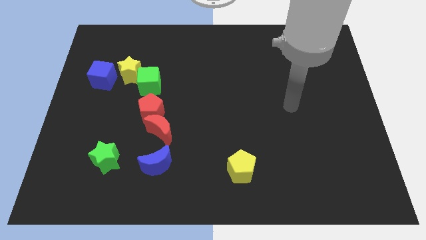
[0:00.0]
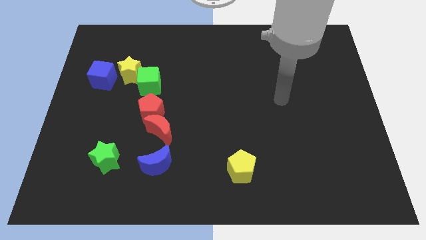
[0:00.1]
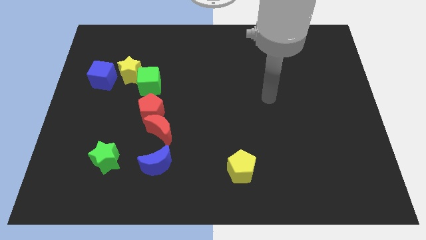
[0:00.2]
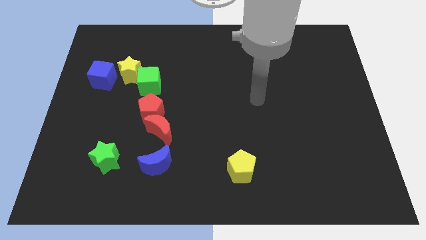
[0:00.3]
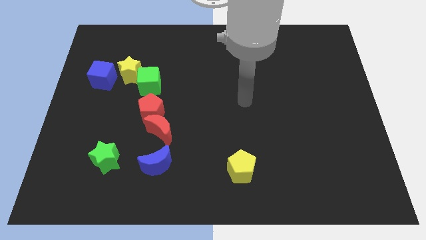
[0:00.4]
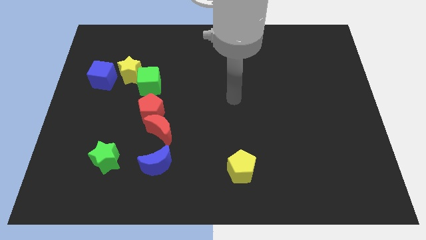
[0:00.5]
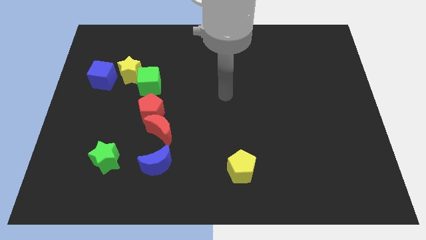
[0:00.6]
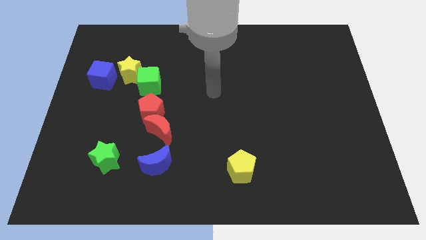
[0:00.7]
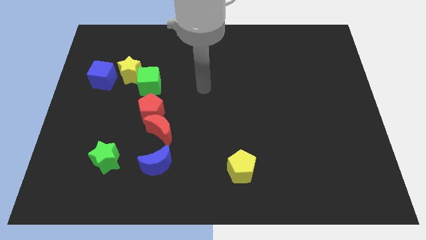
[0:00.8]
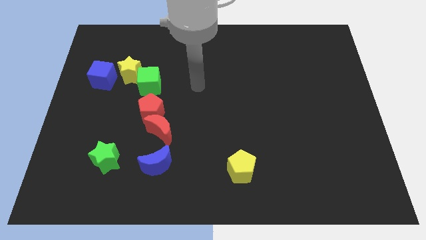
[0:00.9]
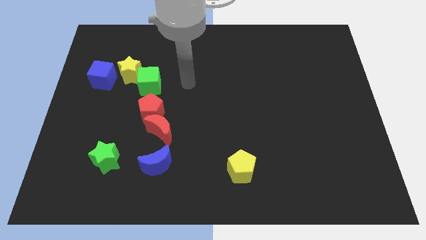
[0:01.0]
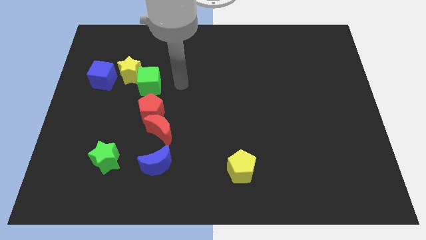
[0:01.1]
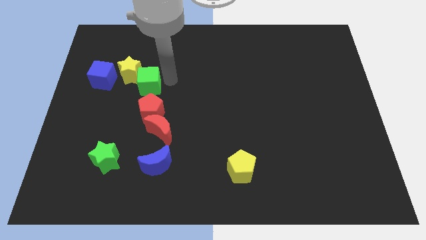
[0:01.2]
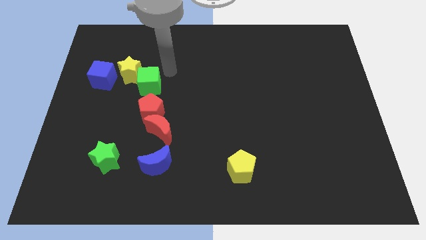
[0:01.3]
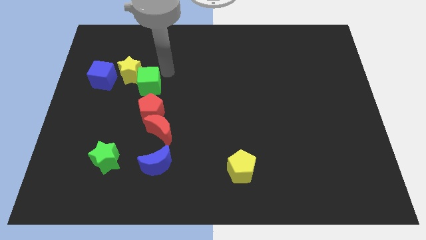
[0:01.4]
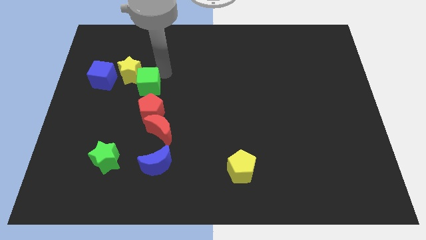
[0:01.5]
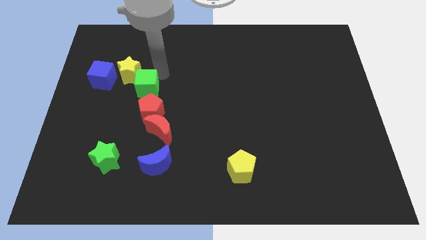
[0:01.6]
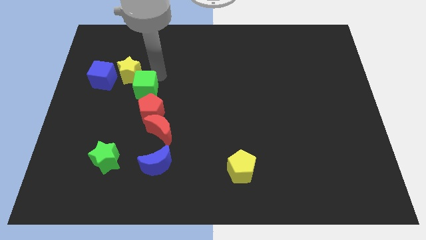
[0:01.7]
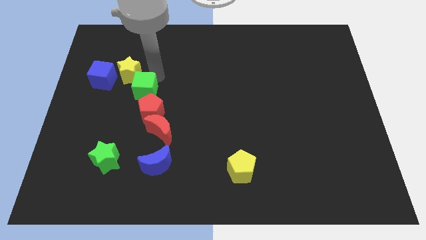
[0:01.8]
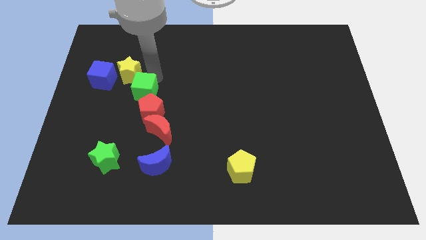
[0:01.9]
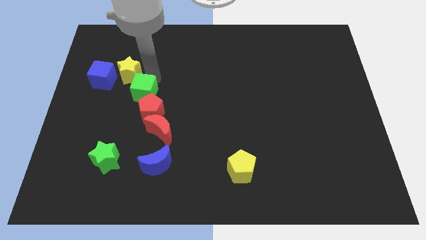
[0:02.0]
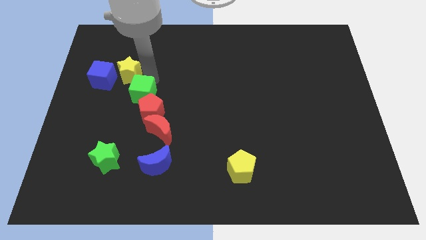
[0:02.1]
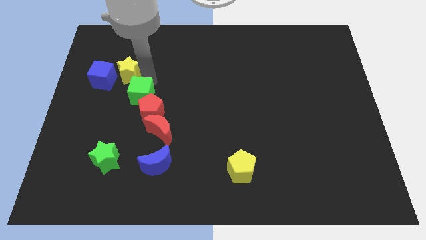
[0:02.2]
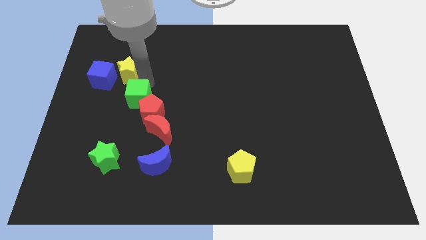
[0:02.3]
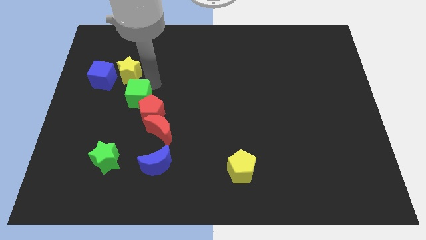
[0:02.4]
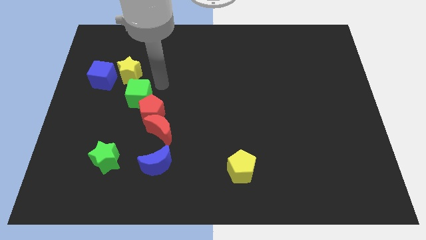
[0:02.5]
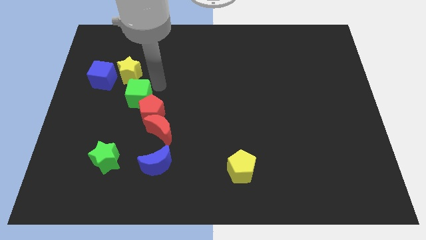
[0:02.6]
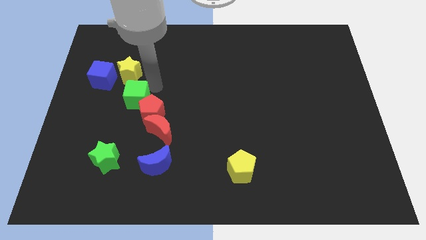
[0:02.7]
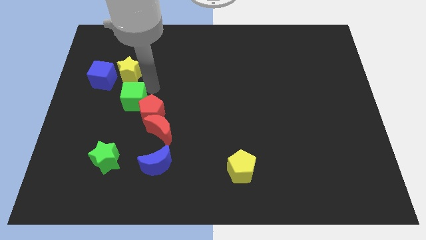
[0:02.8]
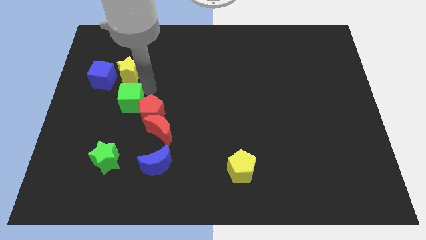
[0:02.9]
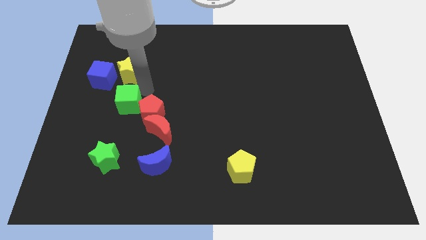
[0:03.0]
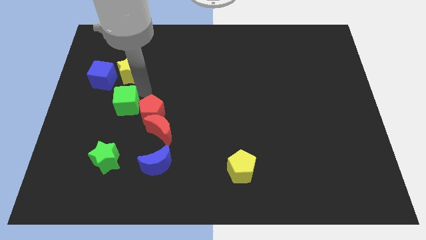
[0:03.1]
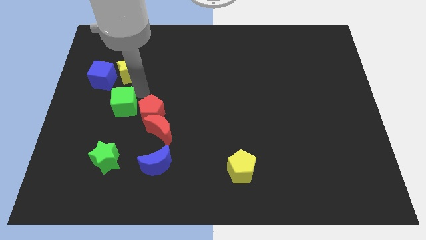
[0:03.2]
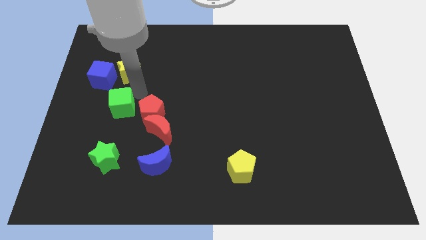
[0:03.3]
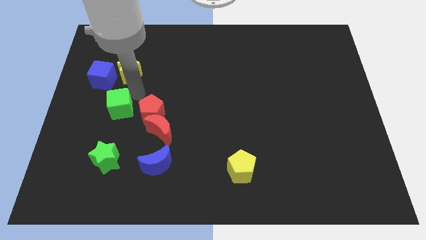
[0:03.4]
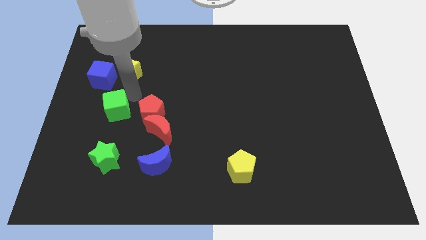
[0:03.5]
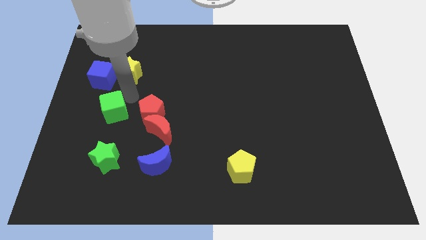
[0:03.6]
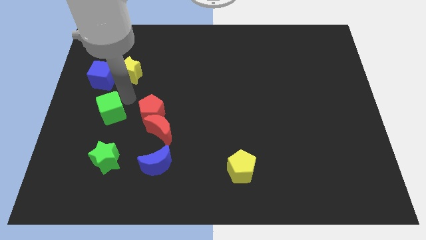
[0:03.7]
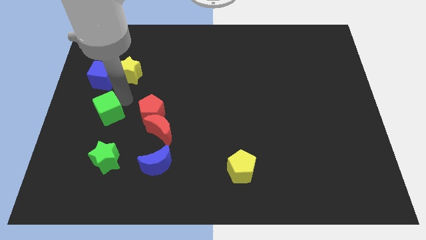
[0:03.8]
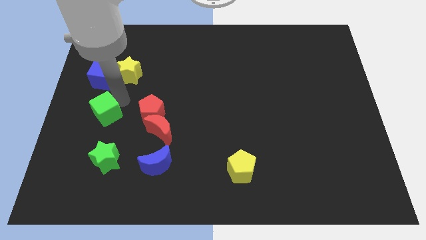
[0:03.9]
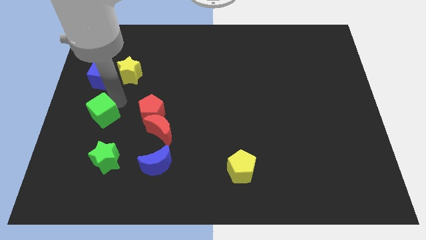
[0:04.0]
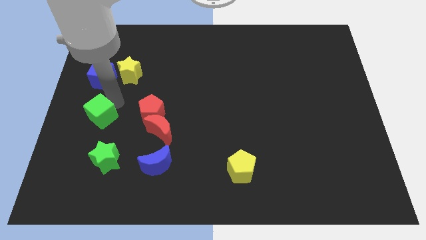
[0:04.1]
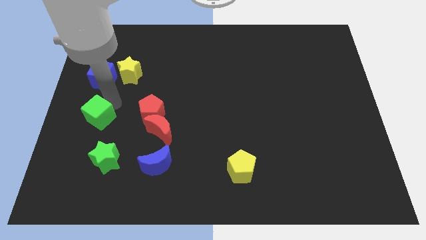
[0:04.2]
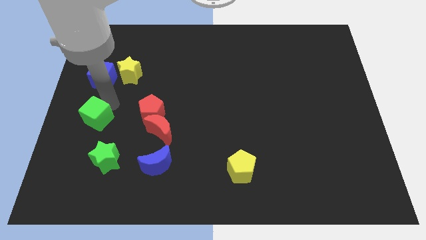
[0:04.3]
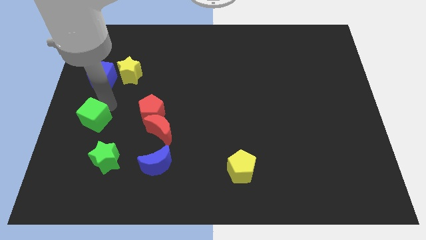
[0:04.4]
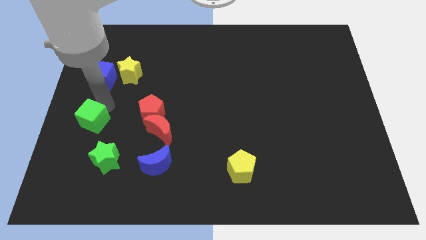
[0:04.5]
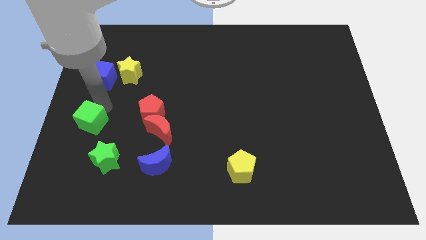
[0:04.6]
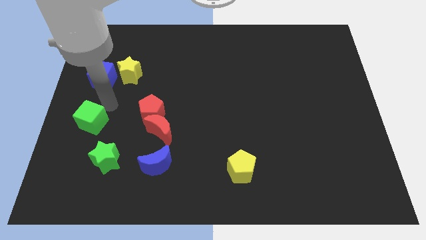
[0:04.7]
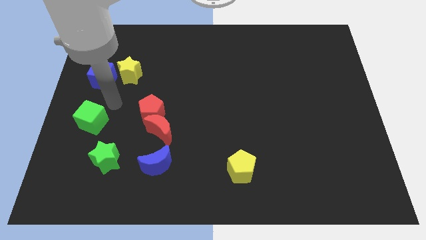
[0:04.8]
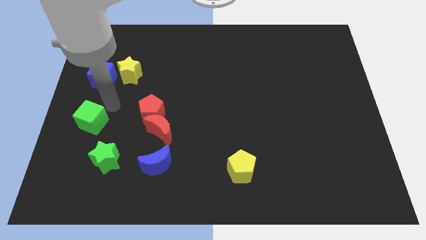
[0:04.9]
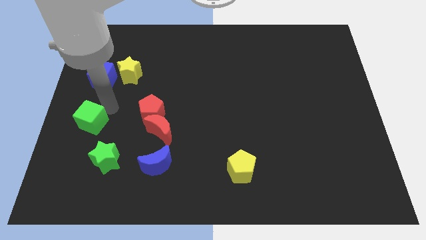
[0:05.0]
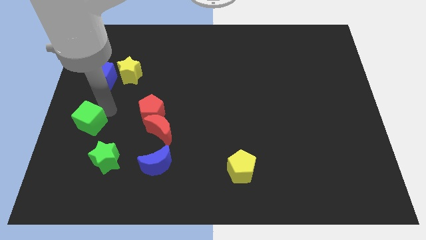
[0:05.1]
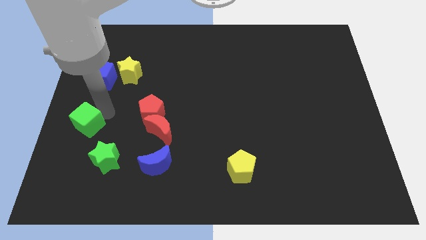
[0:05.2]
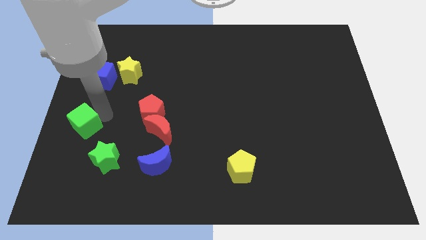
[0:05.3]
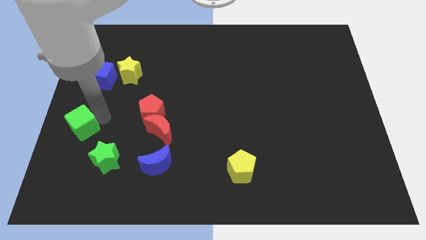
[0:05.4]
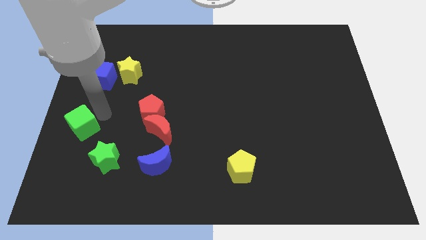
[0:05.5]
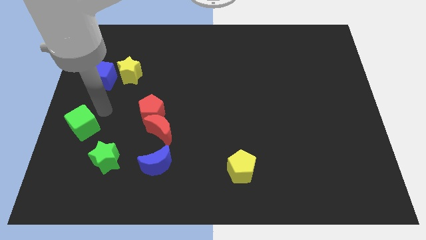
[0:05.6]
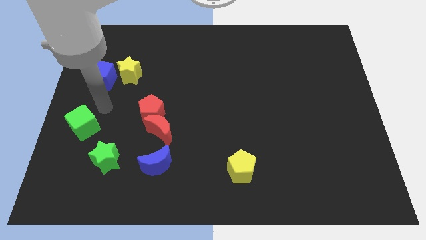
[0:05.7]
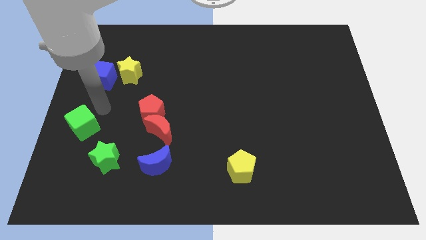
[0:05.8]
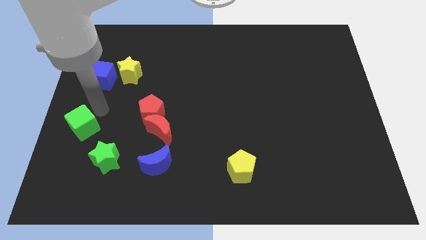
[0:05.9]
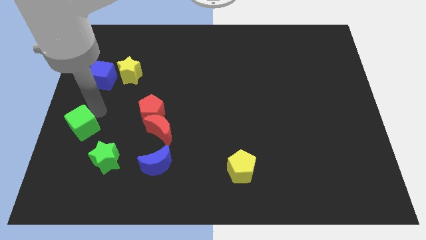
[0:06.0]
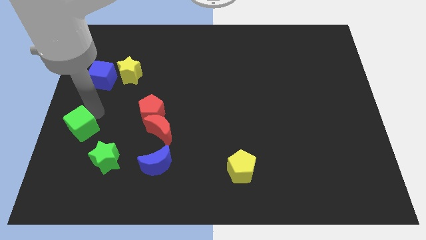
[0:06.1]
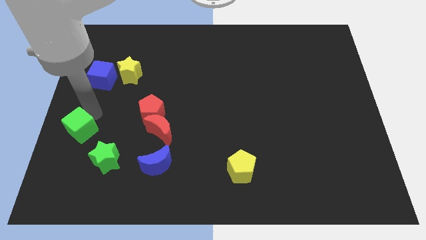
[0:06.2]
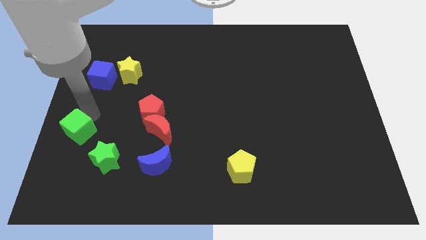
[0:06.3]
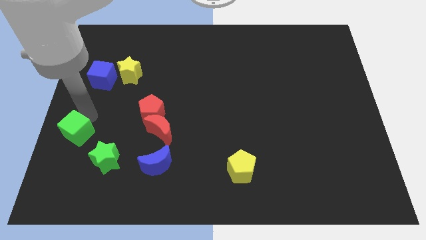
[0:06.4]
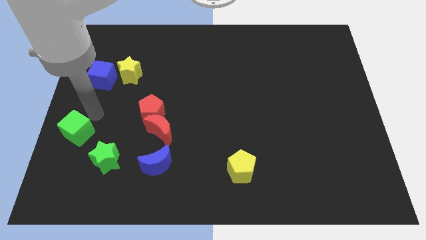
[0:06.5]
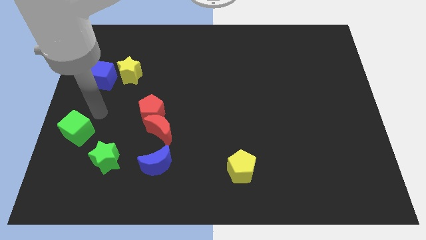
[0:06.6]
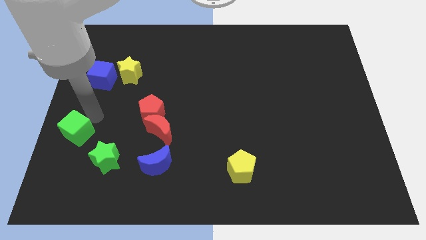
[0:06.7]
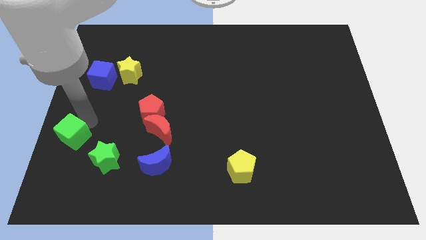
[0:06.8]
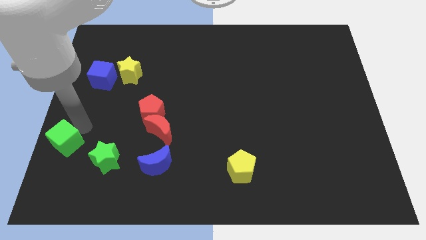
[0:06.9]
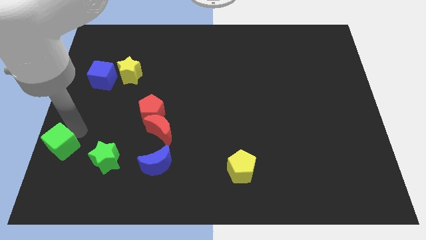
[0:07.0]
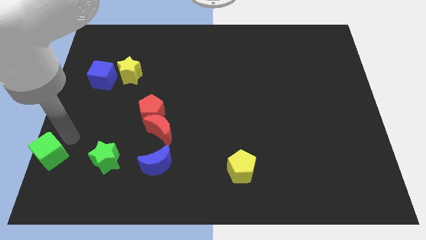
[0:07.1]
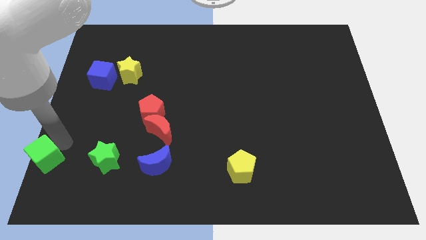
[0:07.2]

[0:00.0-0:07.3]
put the green cube to the lower left corner
